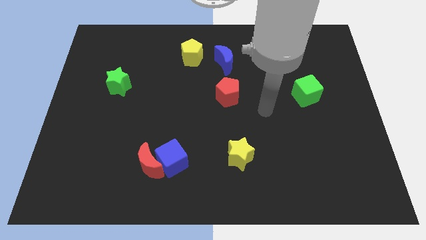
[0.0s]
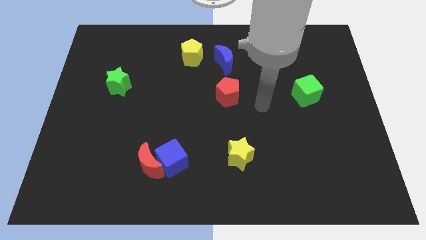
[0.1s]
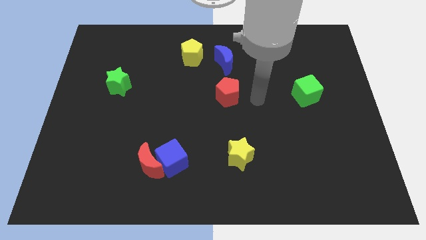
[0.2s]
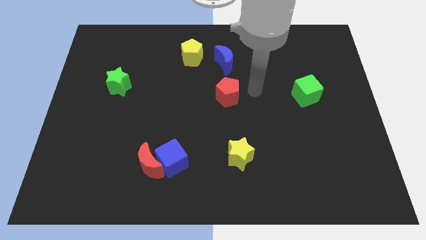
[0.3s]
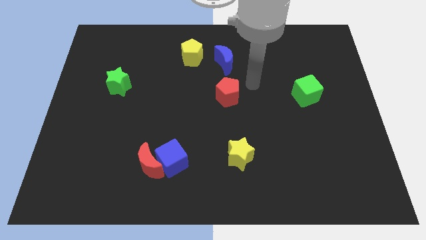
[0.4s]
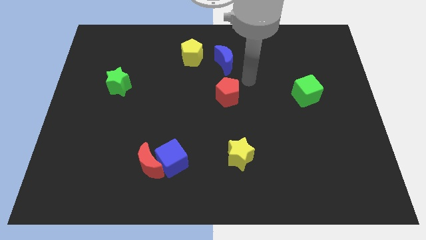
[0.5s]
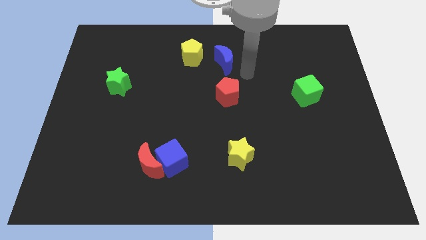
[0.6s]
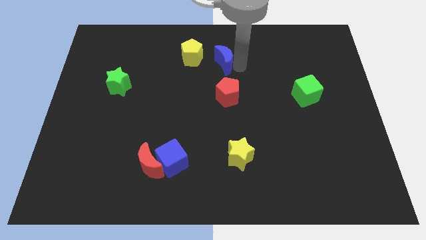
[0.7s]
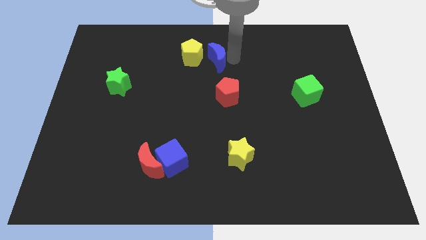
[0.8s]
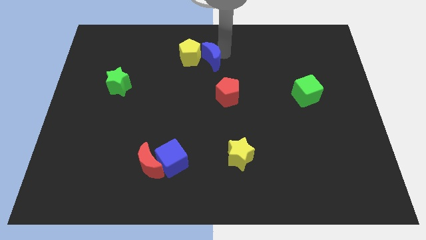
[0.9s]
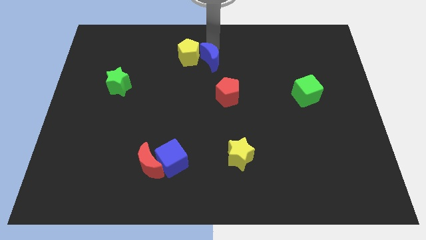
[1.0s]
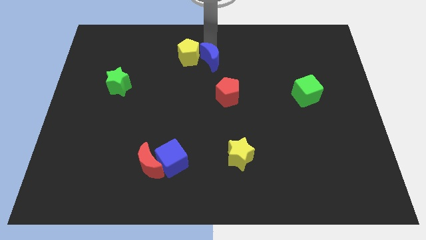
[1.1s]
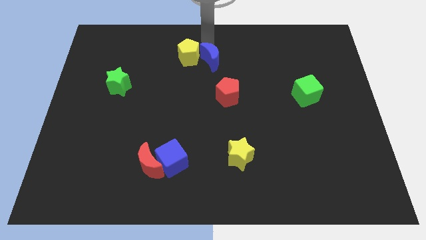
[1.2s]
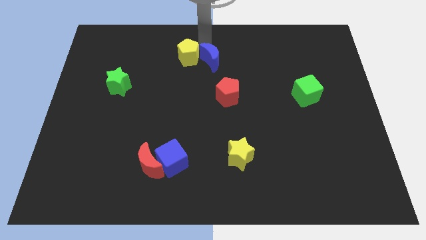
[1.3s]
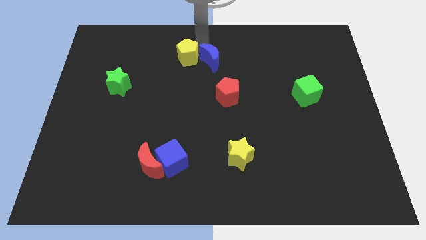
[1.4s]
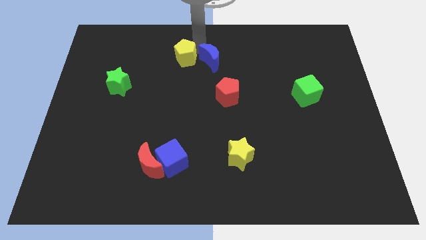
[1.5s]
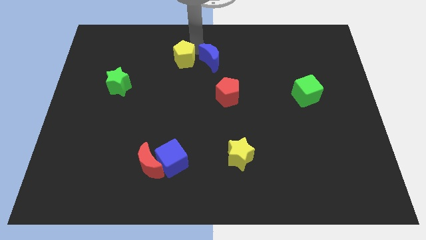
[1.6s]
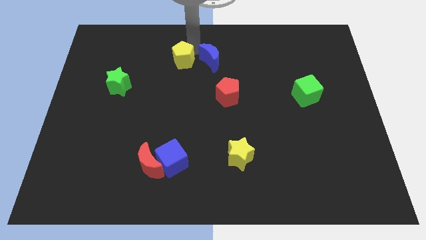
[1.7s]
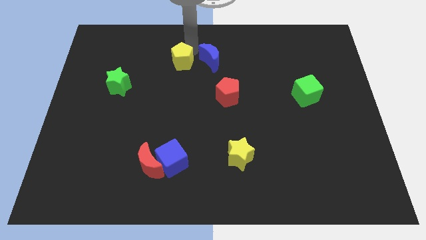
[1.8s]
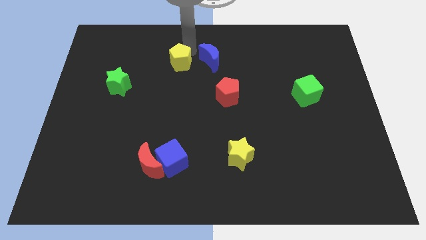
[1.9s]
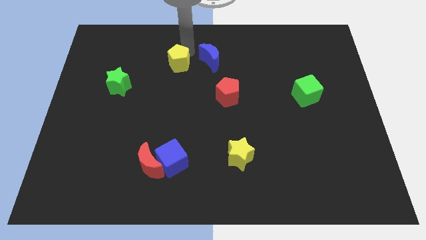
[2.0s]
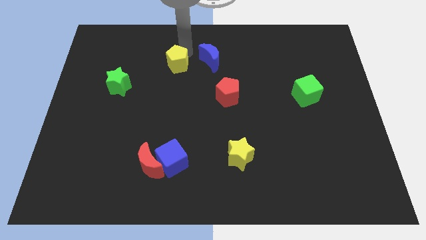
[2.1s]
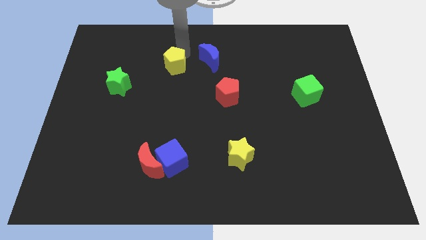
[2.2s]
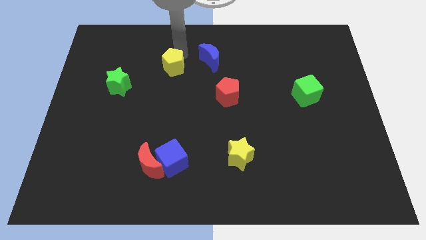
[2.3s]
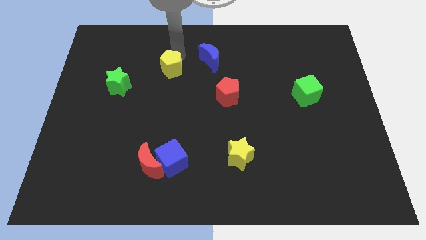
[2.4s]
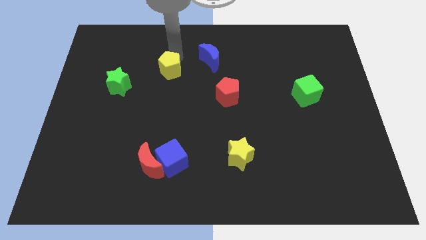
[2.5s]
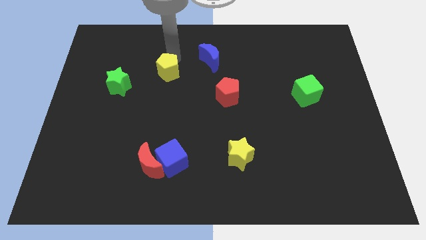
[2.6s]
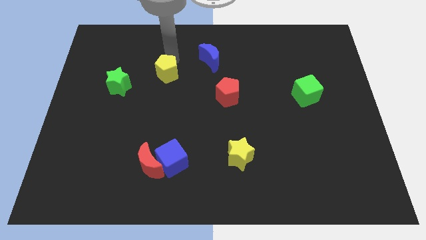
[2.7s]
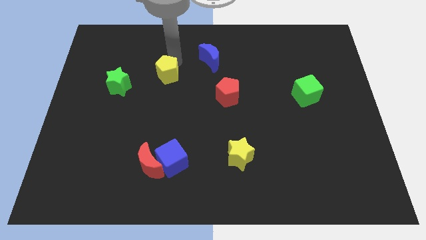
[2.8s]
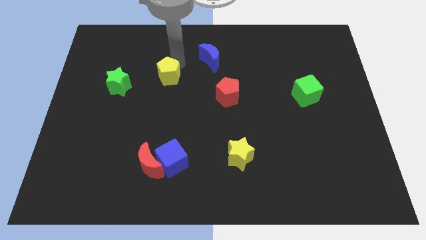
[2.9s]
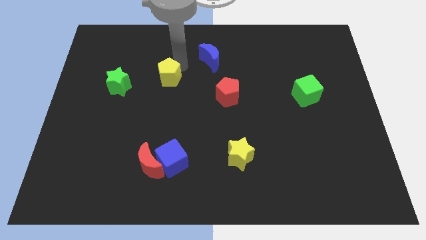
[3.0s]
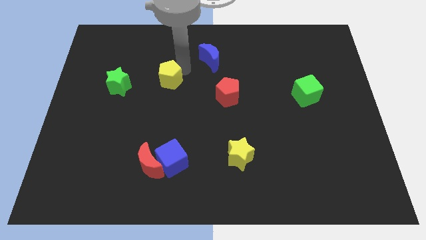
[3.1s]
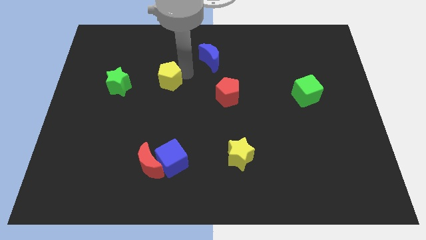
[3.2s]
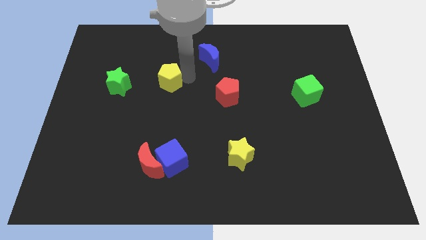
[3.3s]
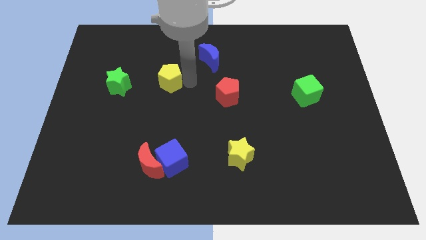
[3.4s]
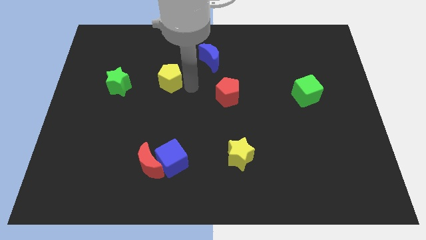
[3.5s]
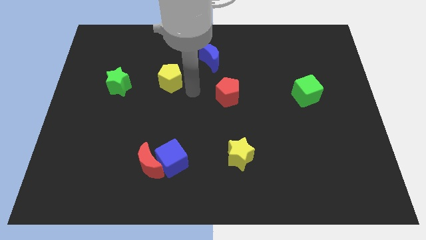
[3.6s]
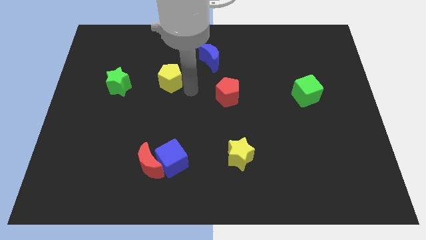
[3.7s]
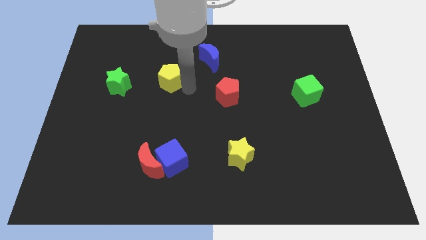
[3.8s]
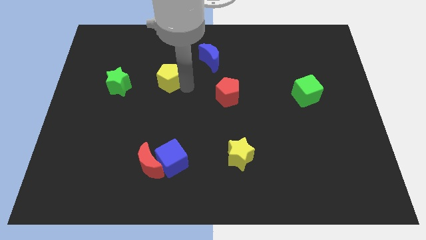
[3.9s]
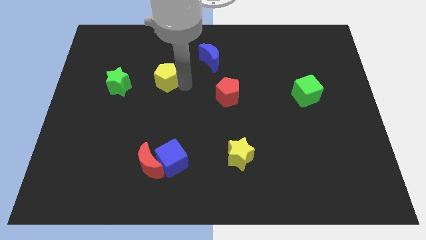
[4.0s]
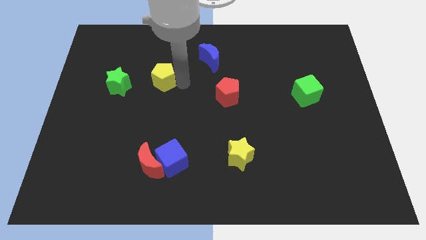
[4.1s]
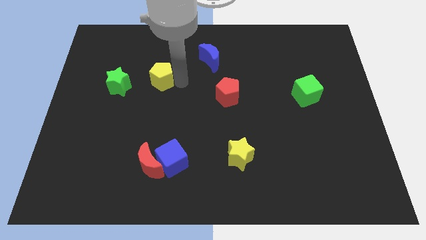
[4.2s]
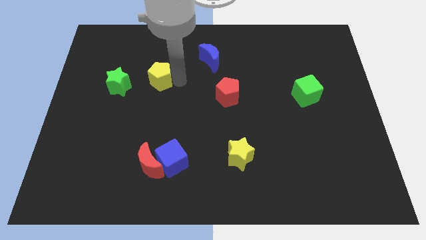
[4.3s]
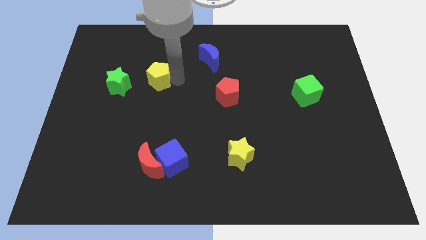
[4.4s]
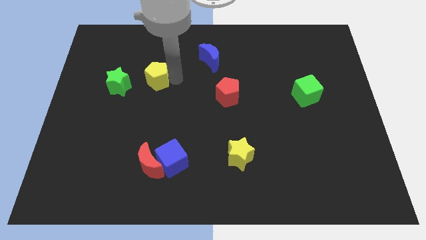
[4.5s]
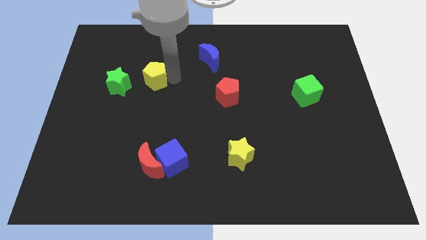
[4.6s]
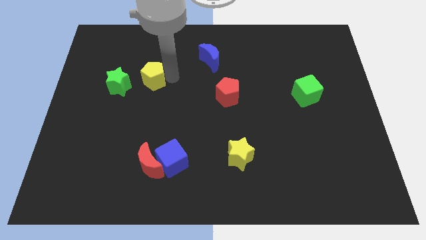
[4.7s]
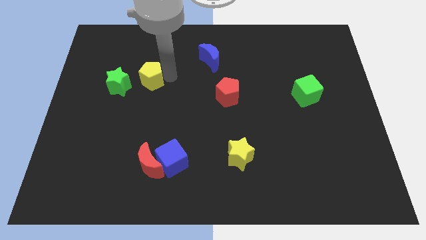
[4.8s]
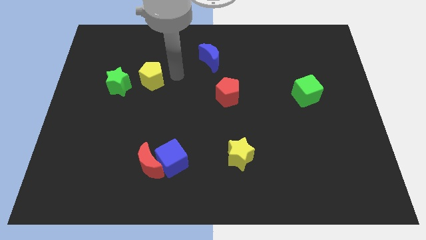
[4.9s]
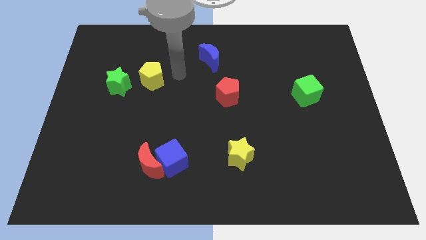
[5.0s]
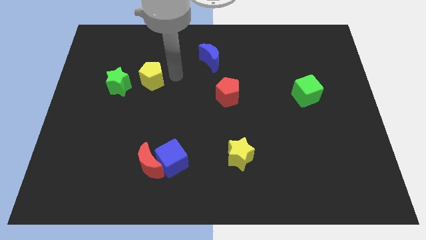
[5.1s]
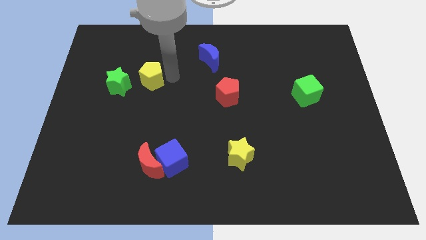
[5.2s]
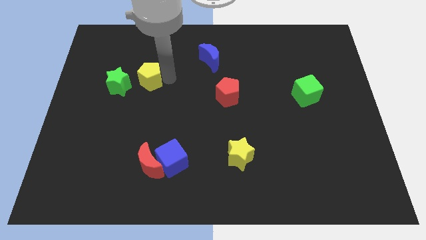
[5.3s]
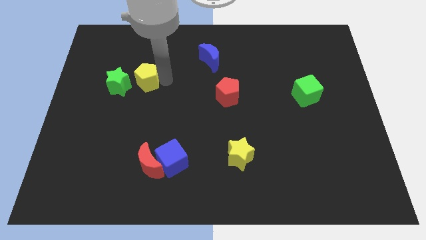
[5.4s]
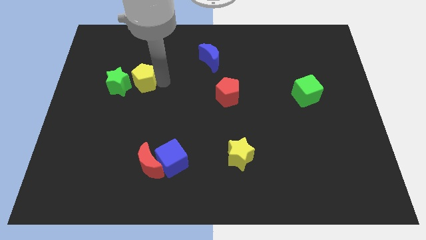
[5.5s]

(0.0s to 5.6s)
put the yellow pentagon next to the green star

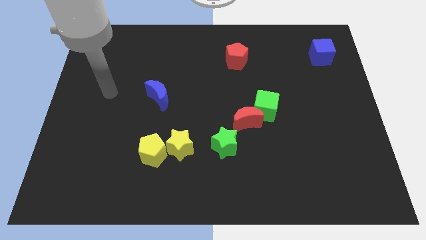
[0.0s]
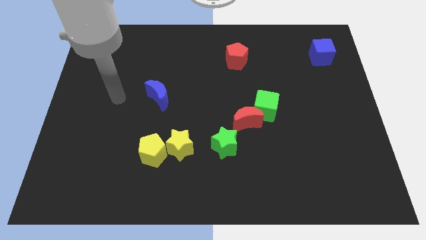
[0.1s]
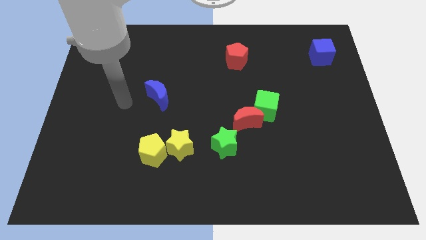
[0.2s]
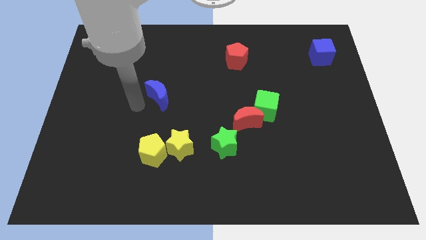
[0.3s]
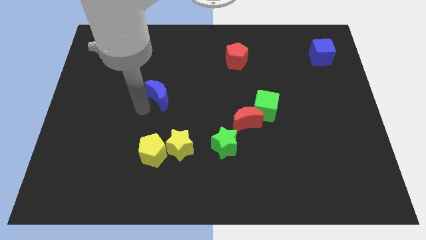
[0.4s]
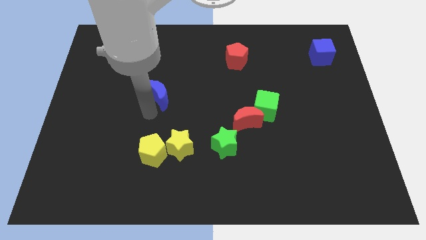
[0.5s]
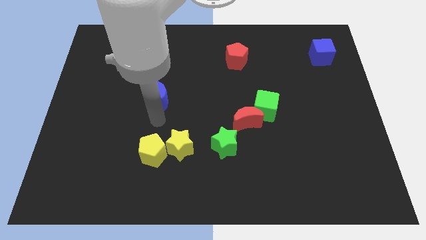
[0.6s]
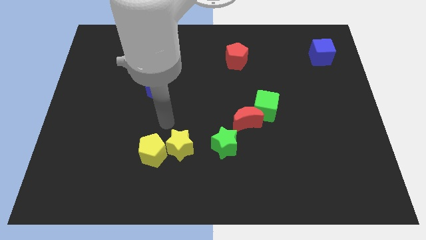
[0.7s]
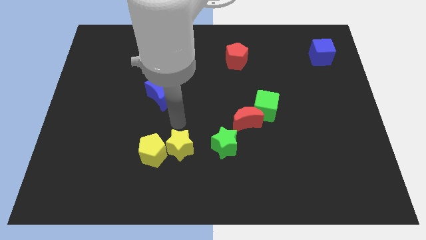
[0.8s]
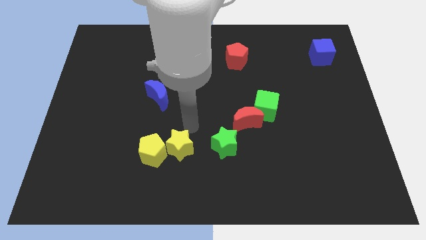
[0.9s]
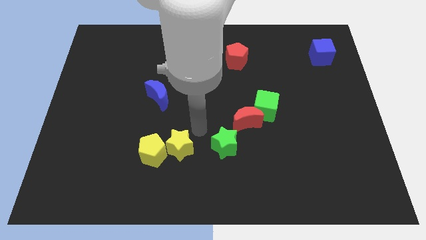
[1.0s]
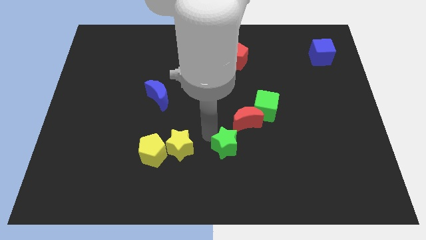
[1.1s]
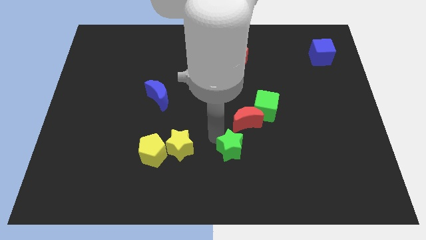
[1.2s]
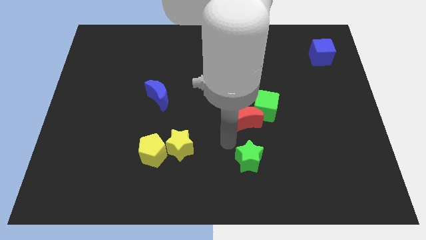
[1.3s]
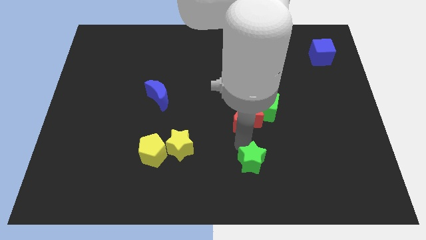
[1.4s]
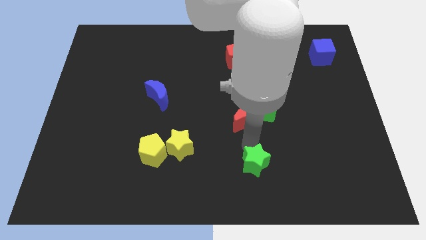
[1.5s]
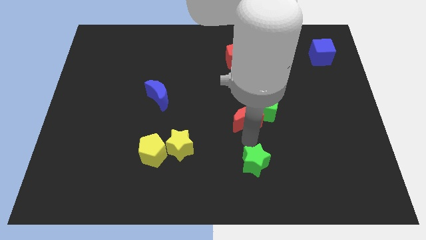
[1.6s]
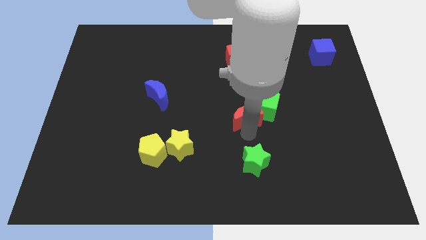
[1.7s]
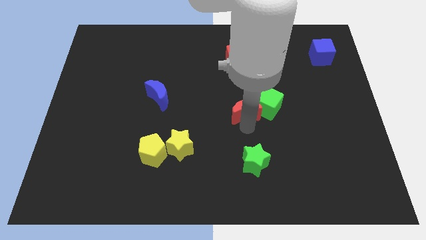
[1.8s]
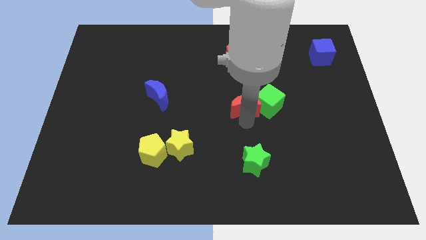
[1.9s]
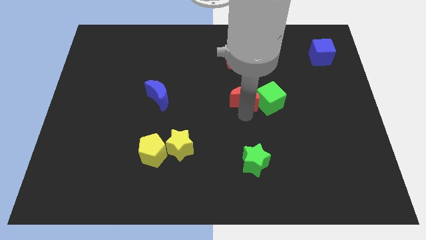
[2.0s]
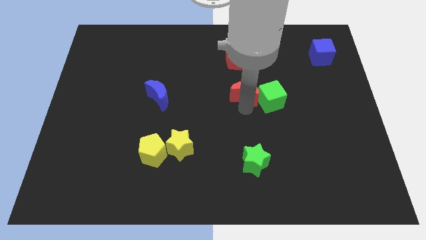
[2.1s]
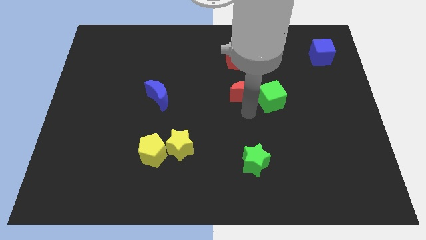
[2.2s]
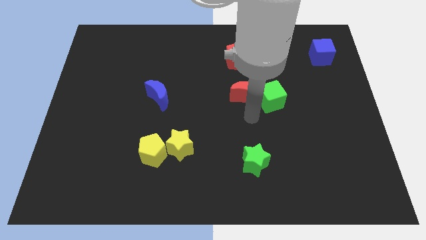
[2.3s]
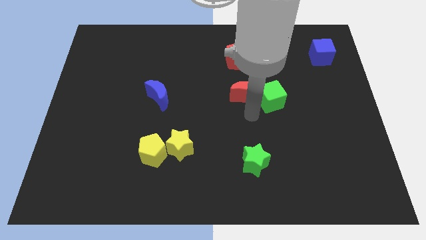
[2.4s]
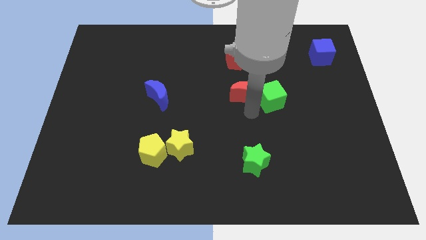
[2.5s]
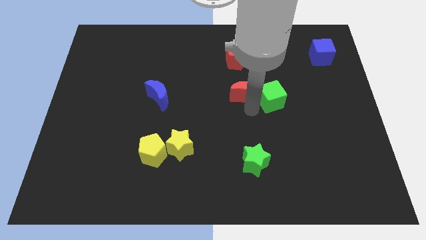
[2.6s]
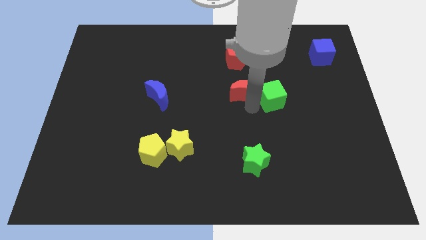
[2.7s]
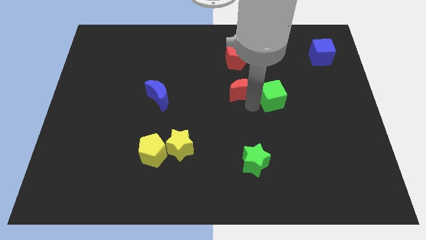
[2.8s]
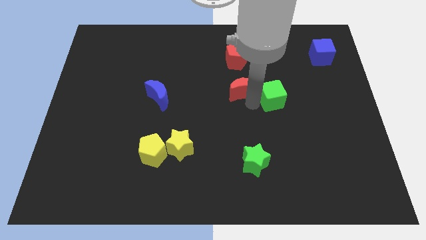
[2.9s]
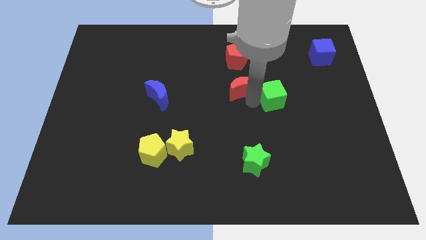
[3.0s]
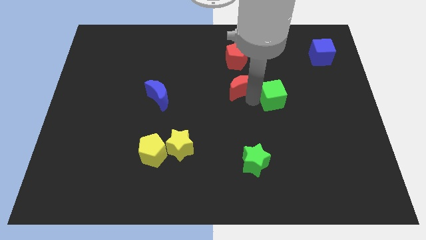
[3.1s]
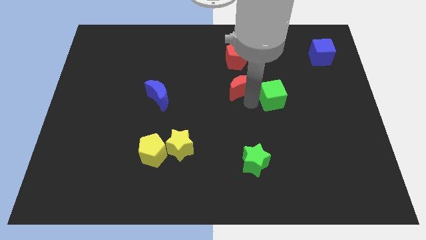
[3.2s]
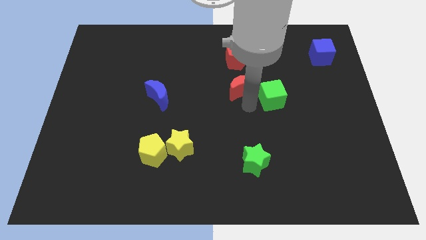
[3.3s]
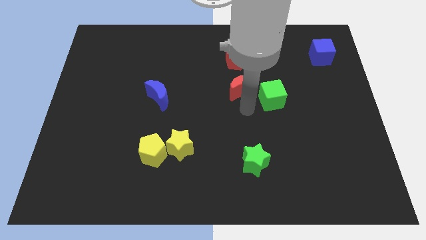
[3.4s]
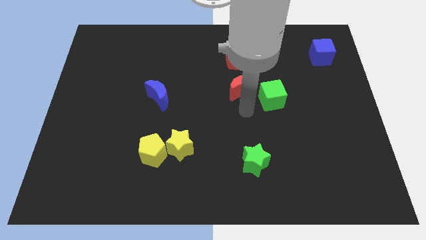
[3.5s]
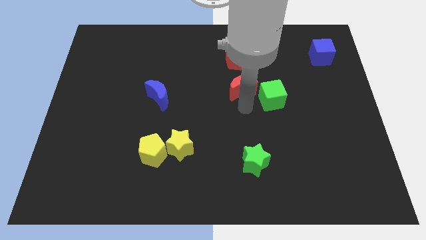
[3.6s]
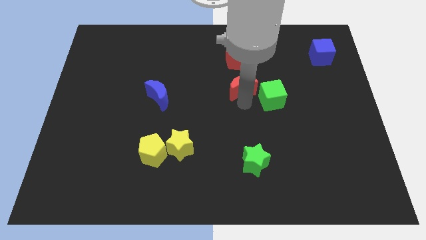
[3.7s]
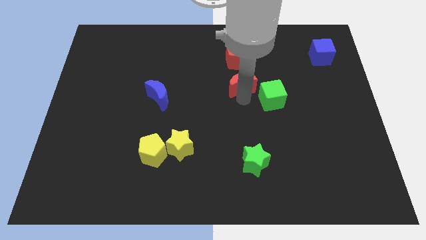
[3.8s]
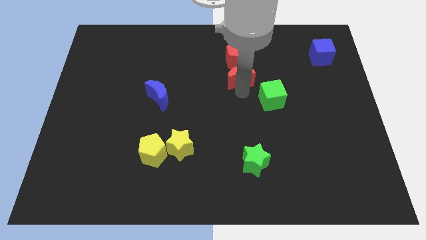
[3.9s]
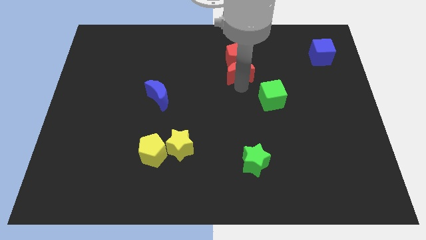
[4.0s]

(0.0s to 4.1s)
put the red moon close to the red pentagon
